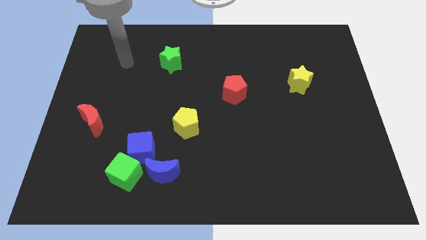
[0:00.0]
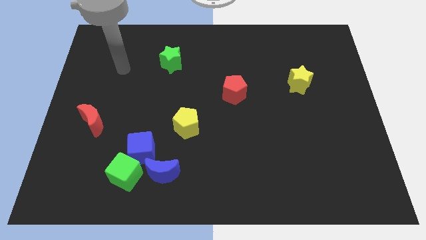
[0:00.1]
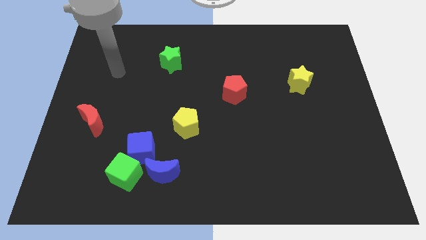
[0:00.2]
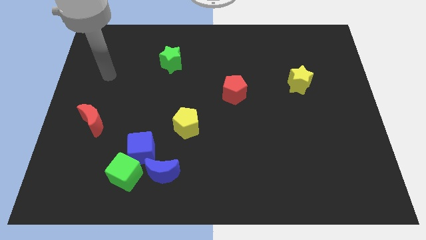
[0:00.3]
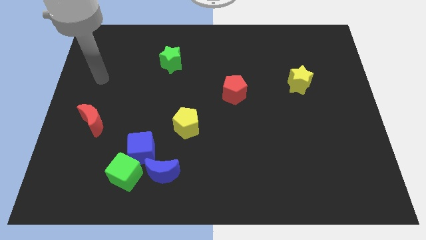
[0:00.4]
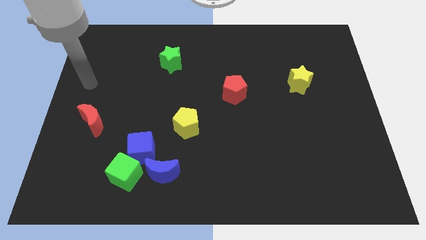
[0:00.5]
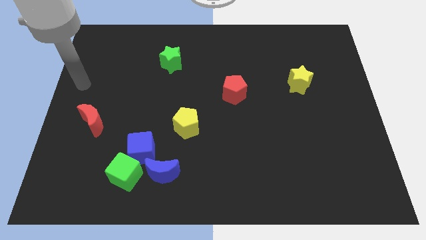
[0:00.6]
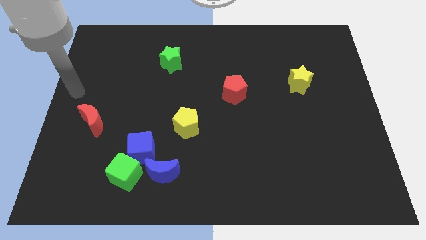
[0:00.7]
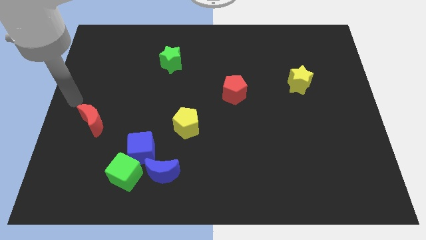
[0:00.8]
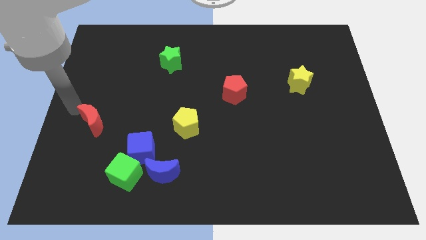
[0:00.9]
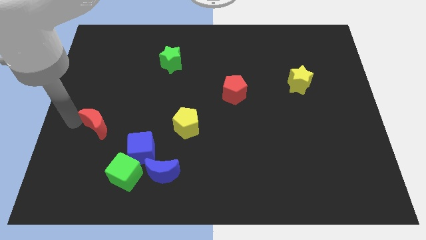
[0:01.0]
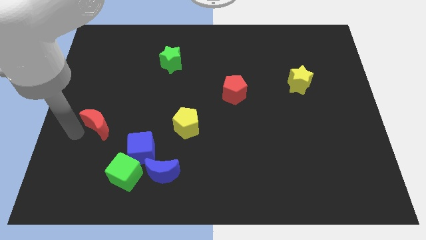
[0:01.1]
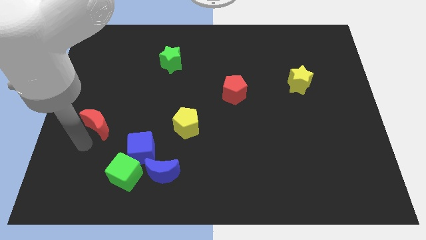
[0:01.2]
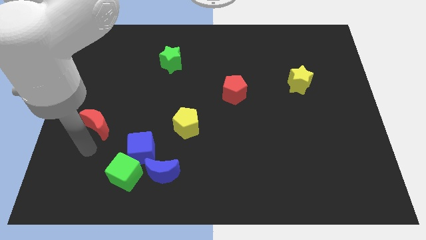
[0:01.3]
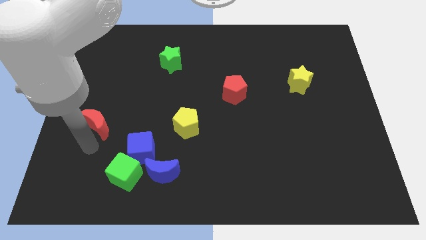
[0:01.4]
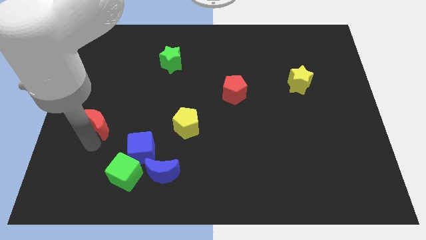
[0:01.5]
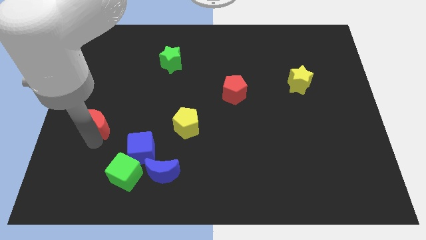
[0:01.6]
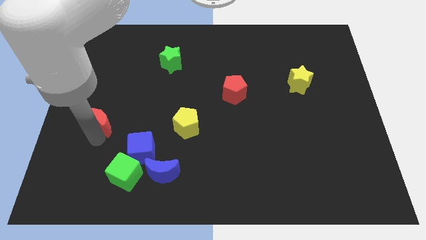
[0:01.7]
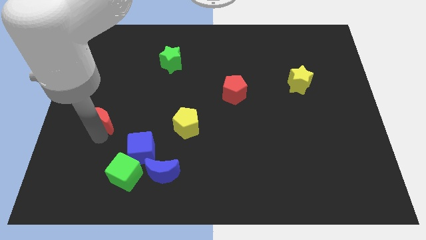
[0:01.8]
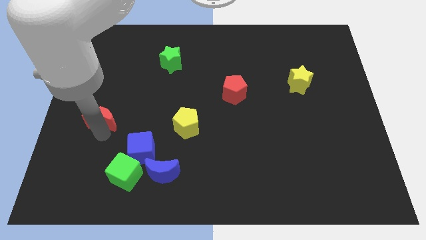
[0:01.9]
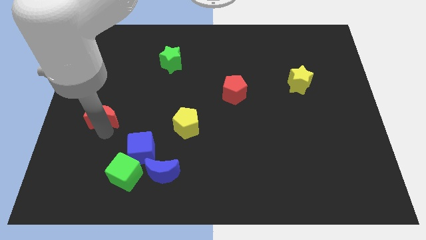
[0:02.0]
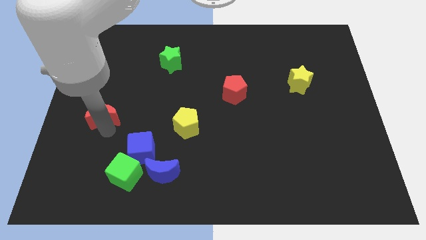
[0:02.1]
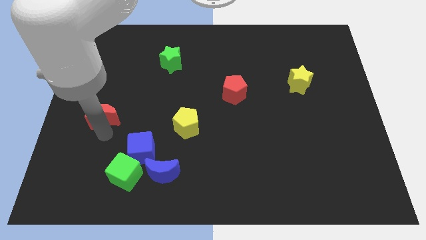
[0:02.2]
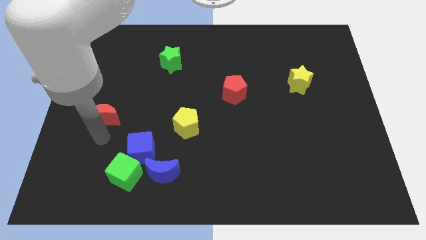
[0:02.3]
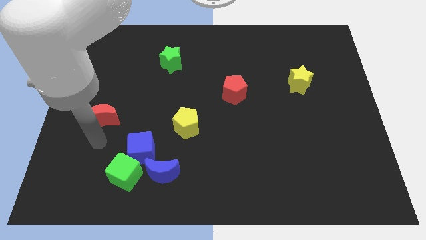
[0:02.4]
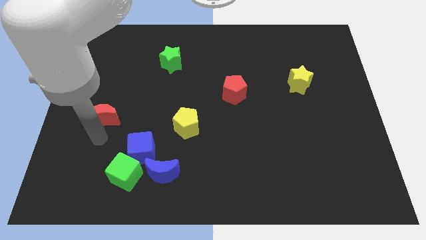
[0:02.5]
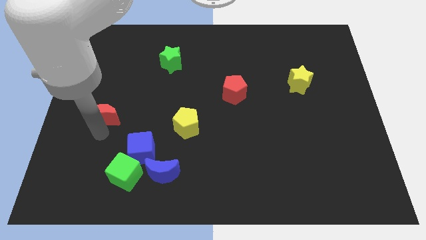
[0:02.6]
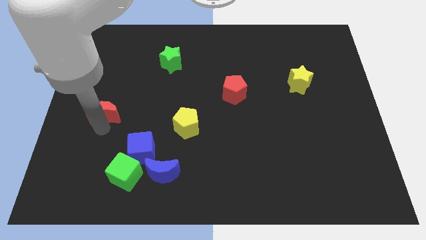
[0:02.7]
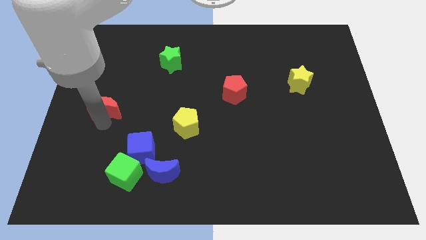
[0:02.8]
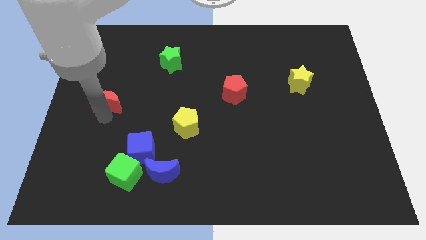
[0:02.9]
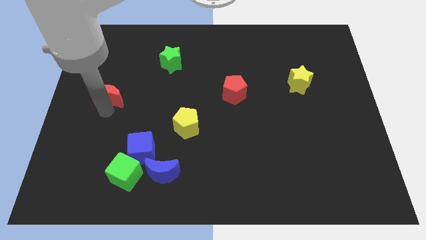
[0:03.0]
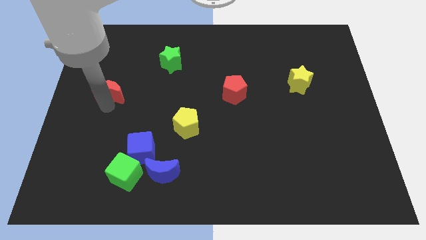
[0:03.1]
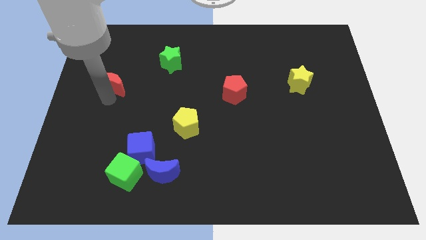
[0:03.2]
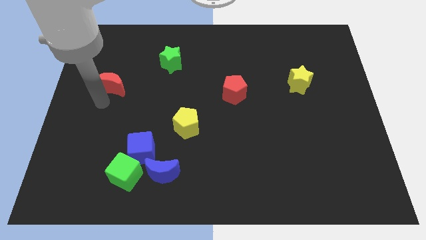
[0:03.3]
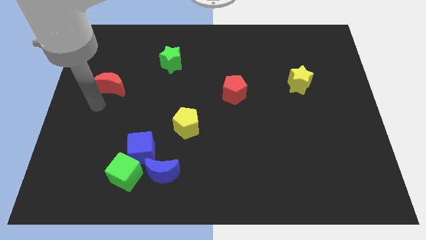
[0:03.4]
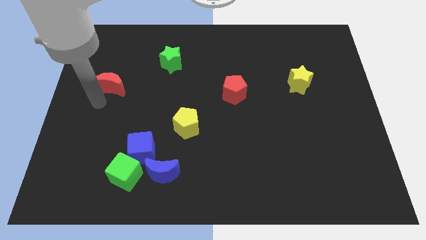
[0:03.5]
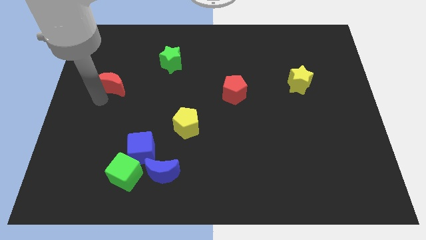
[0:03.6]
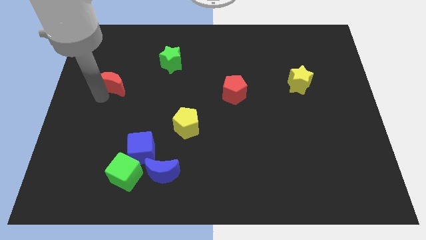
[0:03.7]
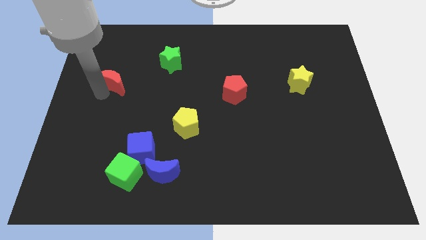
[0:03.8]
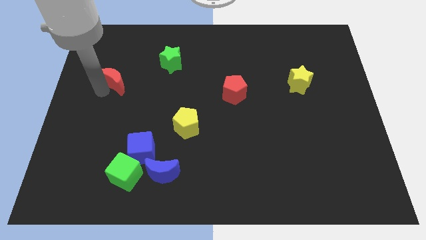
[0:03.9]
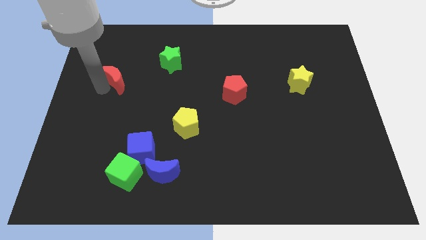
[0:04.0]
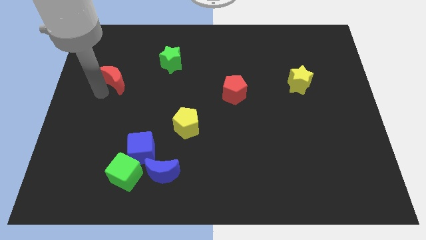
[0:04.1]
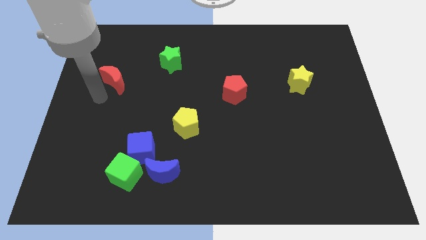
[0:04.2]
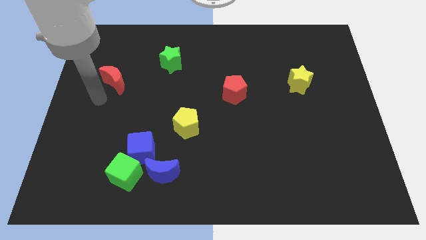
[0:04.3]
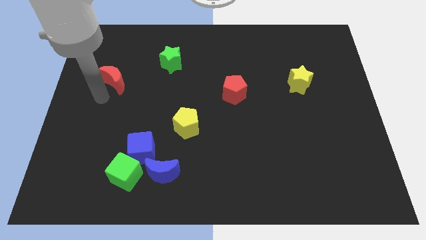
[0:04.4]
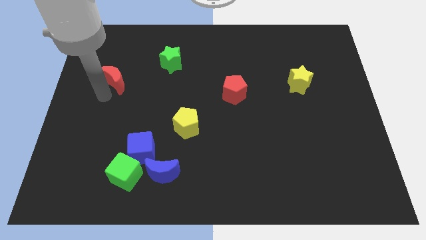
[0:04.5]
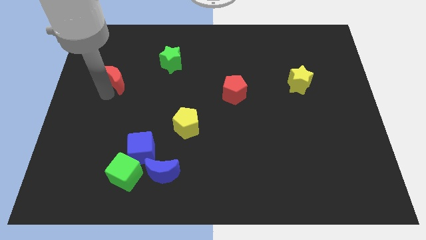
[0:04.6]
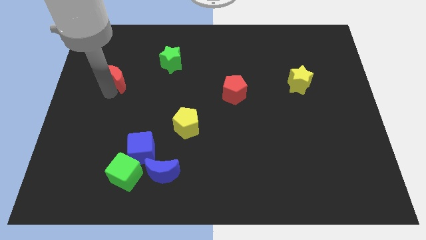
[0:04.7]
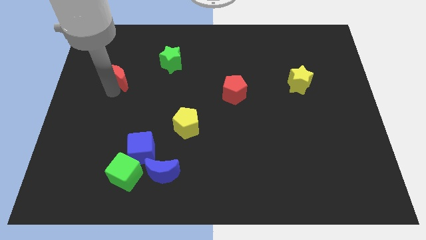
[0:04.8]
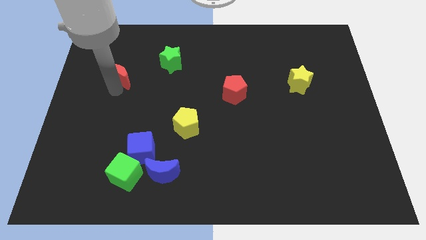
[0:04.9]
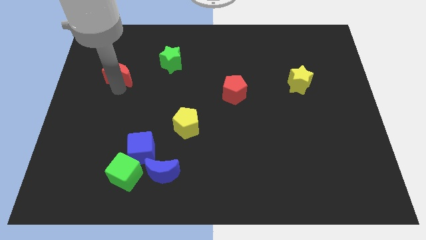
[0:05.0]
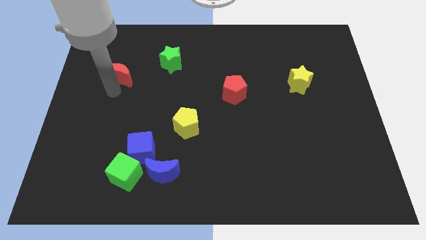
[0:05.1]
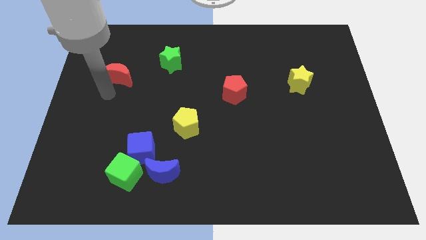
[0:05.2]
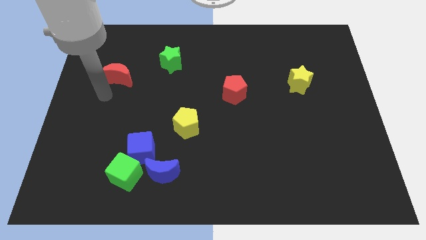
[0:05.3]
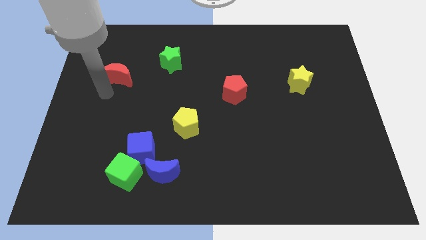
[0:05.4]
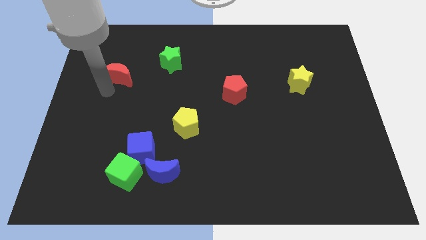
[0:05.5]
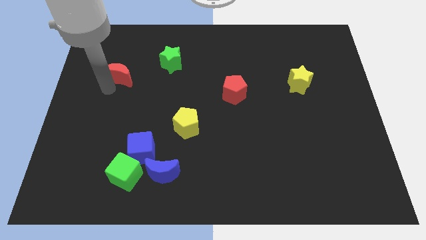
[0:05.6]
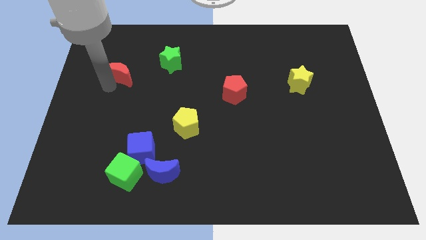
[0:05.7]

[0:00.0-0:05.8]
put the red moon just left of the green star

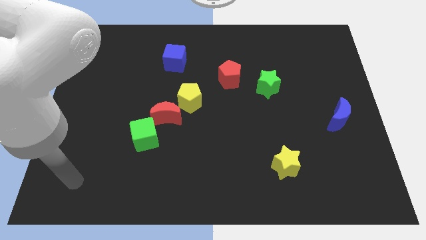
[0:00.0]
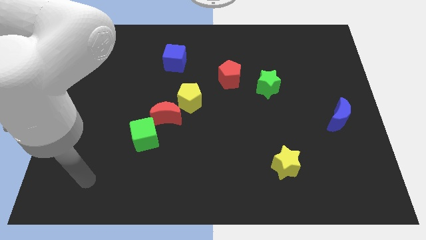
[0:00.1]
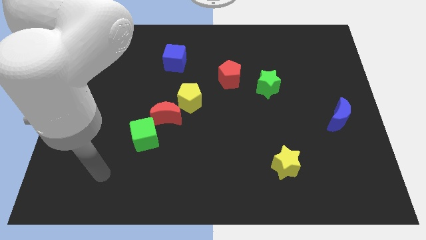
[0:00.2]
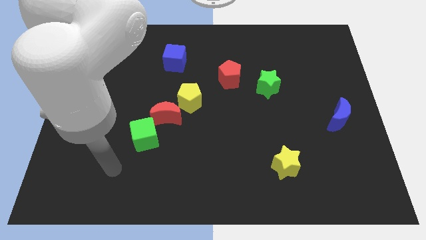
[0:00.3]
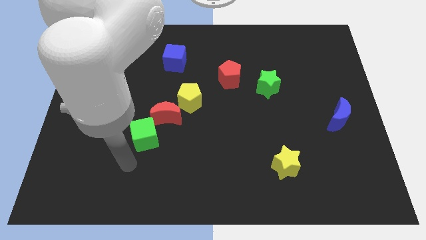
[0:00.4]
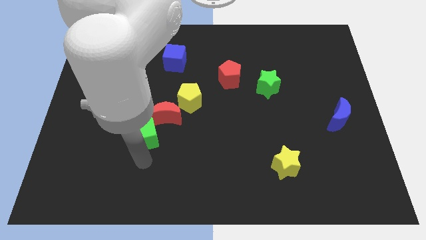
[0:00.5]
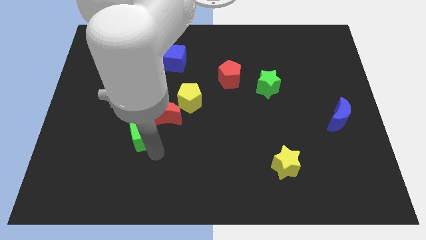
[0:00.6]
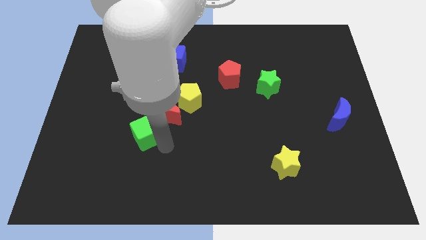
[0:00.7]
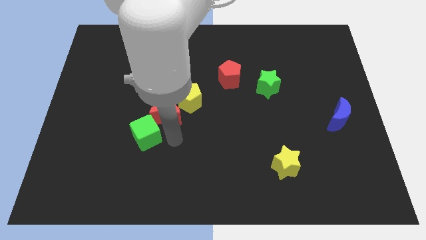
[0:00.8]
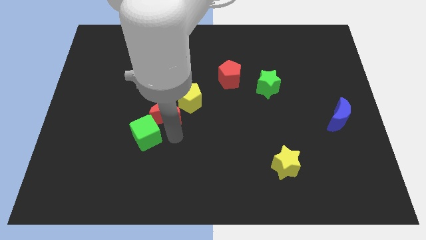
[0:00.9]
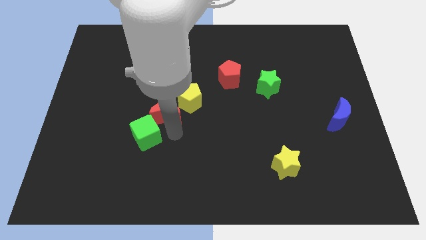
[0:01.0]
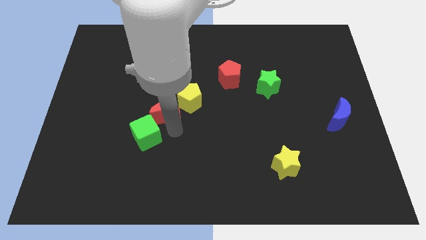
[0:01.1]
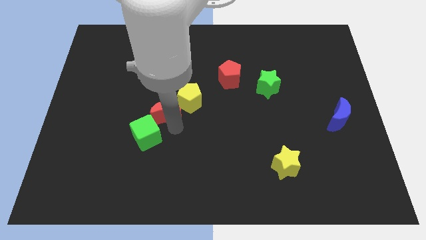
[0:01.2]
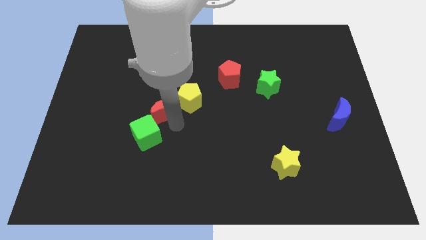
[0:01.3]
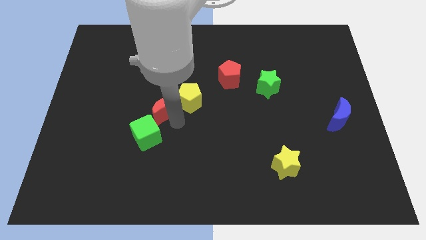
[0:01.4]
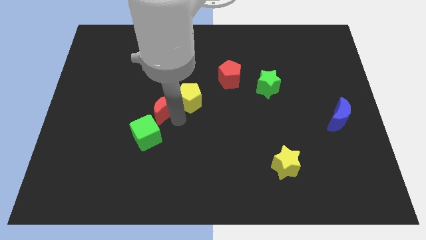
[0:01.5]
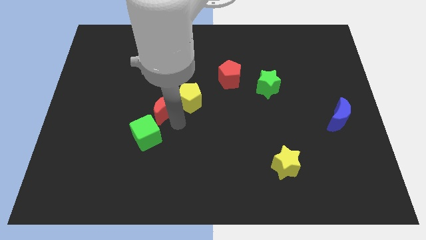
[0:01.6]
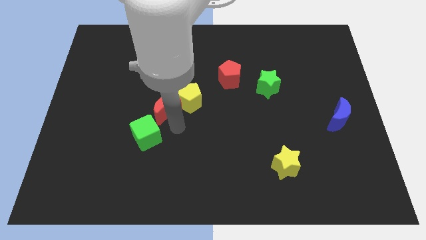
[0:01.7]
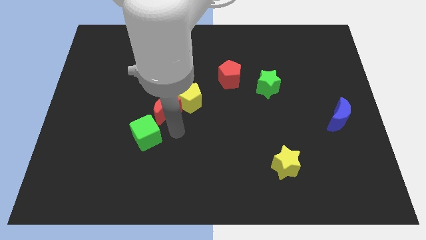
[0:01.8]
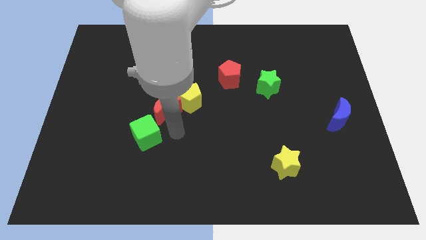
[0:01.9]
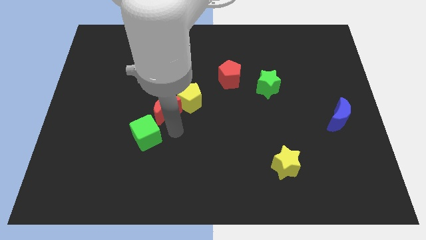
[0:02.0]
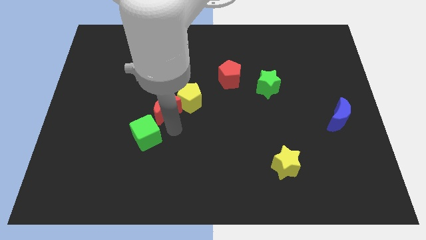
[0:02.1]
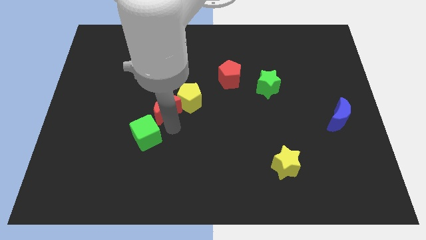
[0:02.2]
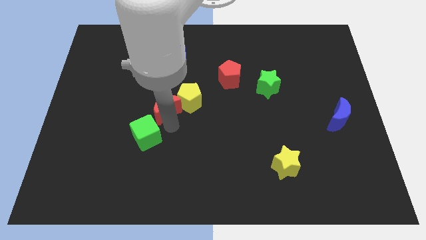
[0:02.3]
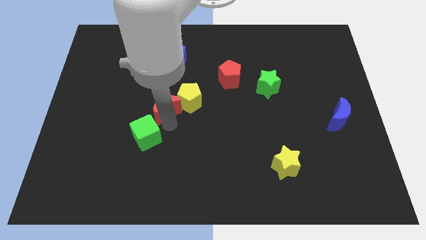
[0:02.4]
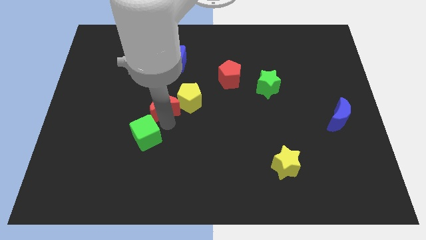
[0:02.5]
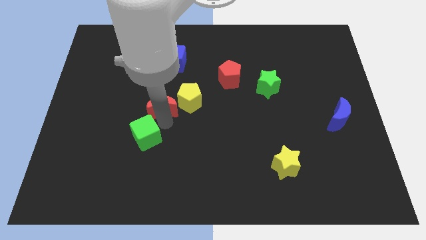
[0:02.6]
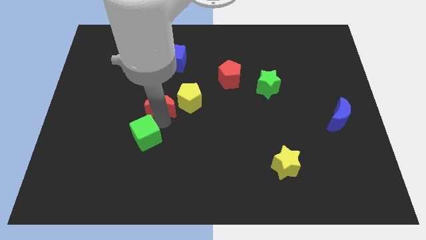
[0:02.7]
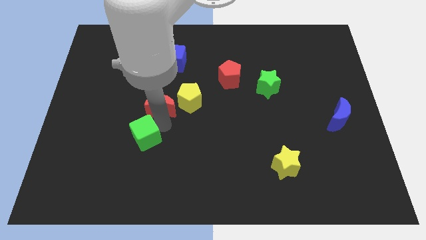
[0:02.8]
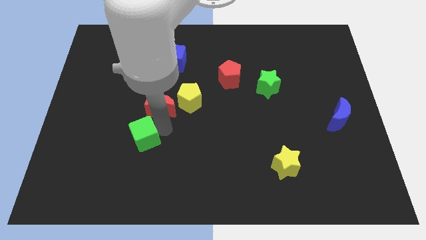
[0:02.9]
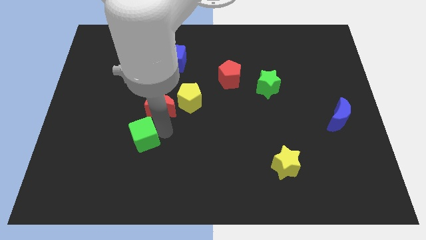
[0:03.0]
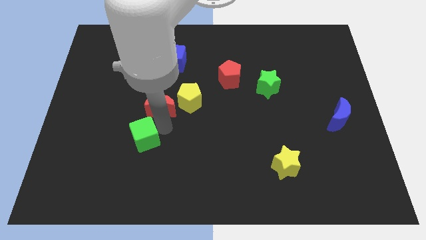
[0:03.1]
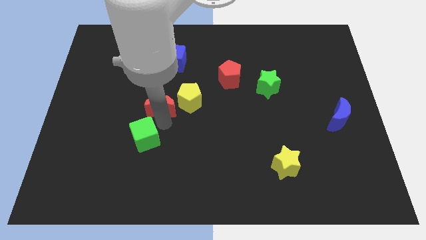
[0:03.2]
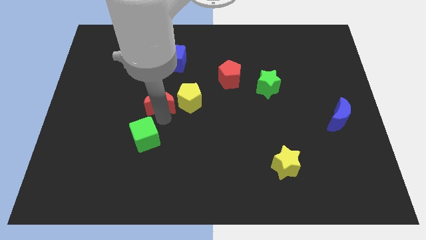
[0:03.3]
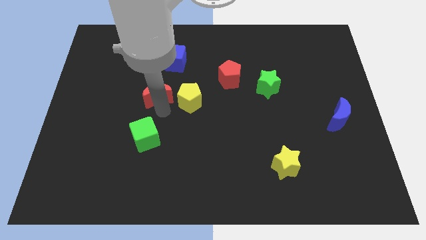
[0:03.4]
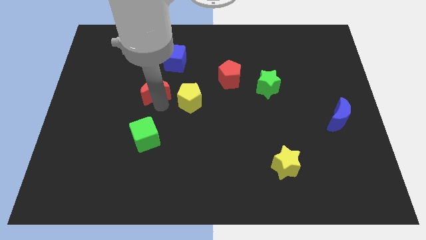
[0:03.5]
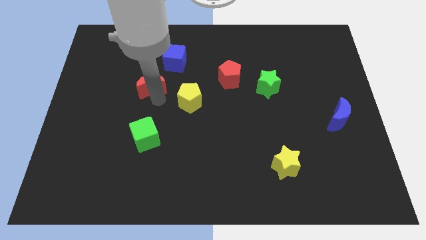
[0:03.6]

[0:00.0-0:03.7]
move the red moon to the bottom left of the blue cube
